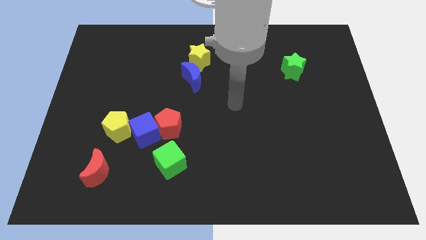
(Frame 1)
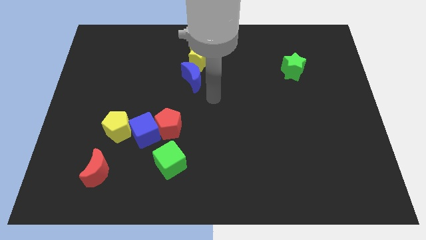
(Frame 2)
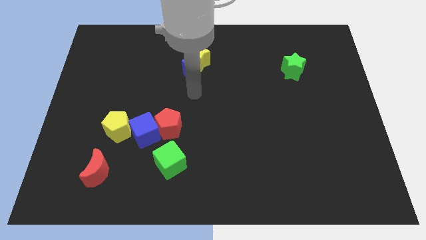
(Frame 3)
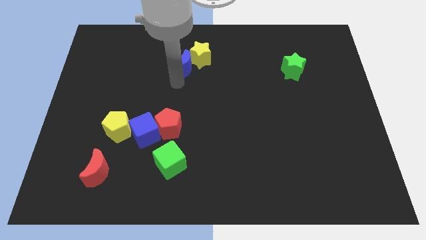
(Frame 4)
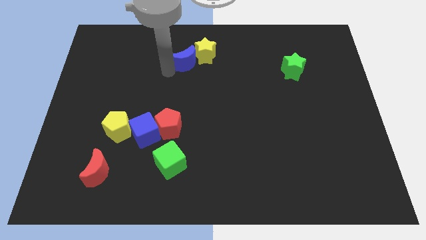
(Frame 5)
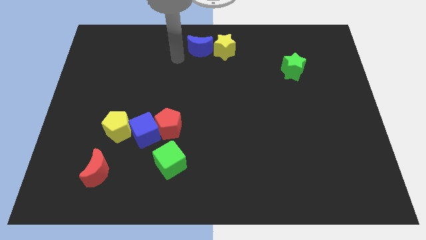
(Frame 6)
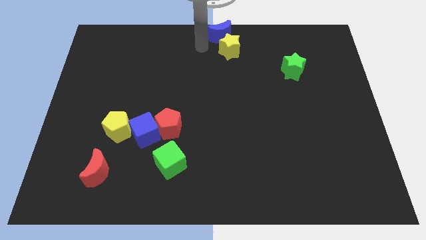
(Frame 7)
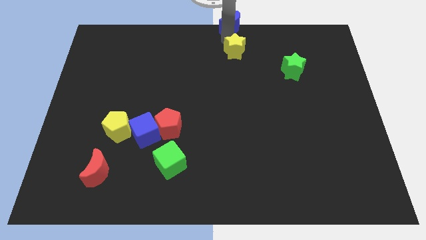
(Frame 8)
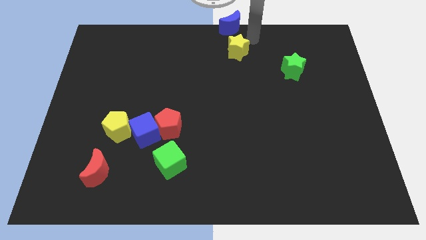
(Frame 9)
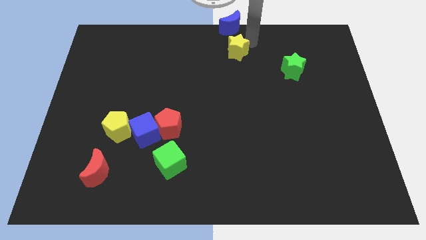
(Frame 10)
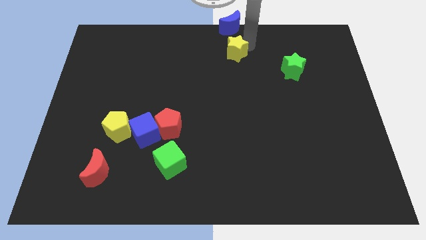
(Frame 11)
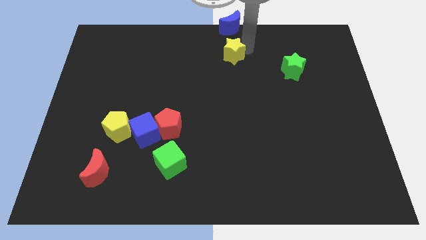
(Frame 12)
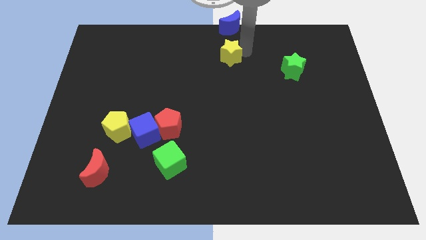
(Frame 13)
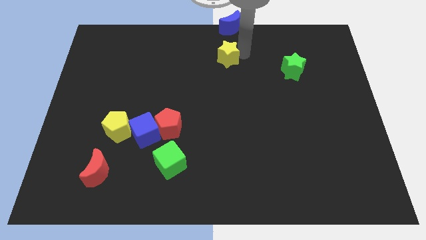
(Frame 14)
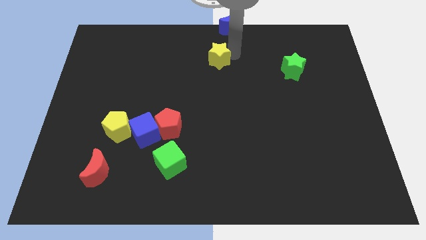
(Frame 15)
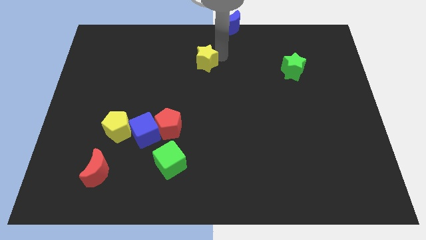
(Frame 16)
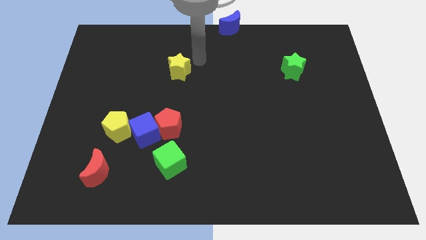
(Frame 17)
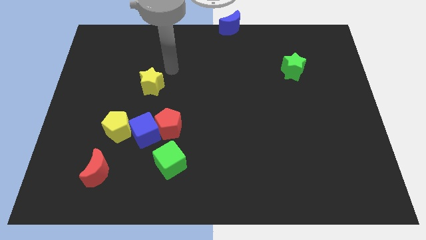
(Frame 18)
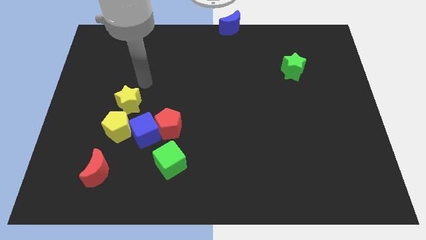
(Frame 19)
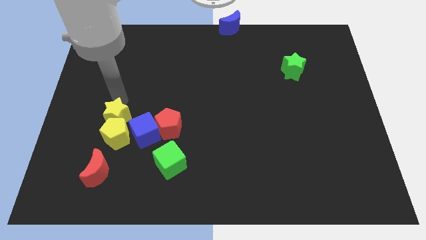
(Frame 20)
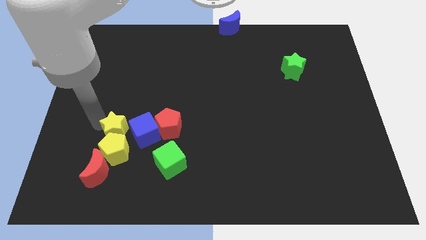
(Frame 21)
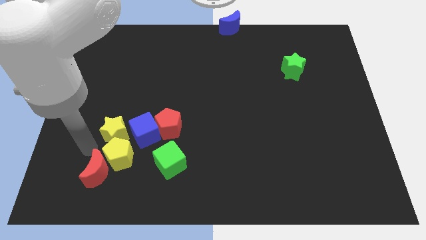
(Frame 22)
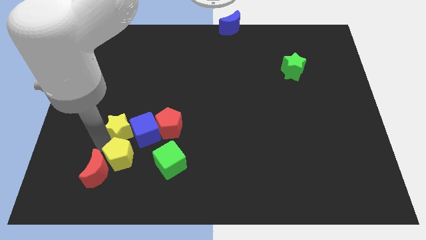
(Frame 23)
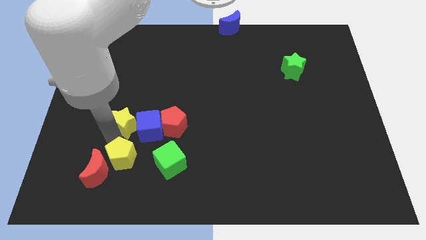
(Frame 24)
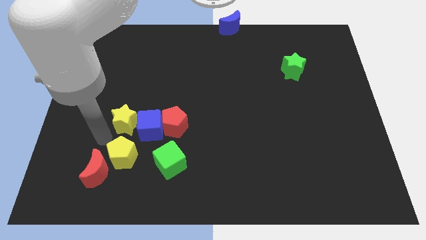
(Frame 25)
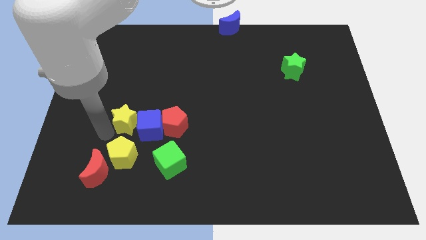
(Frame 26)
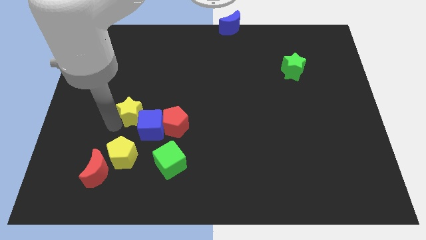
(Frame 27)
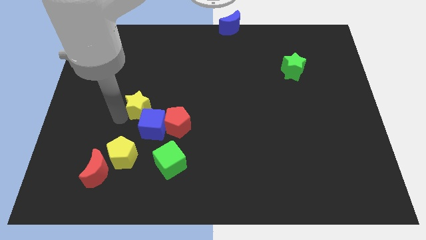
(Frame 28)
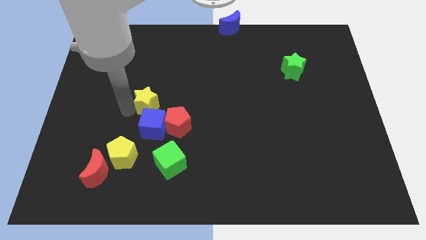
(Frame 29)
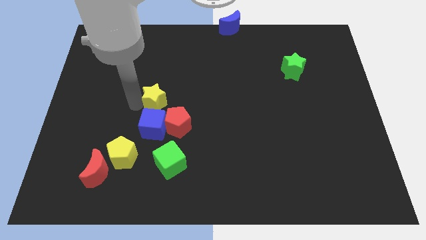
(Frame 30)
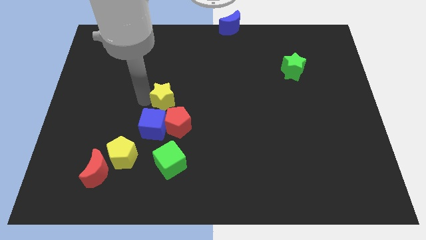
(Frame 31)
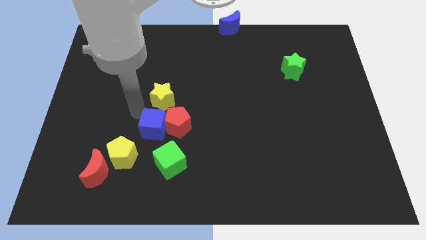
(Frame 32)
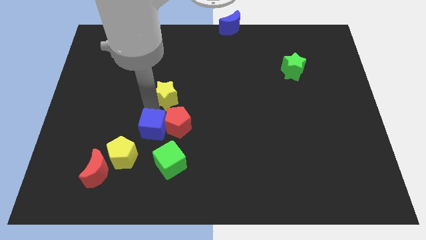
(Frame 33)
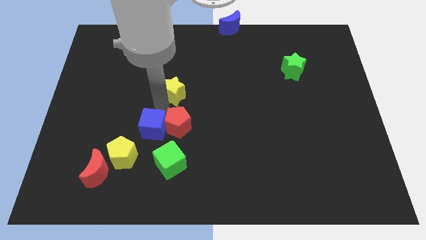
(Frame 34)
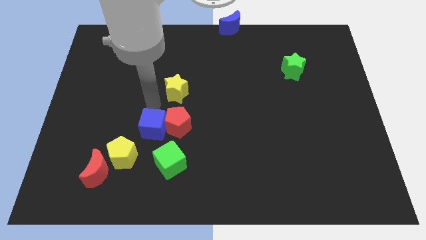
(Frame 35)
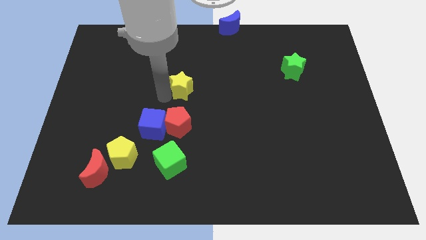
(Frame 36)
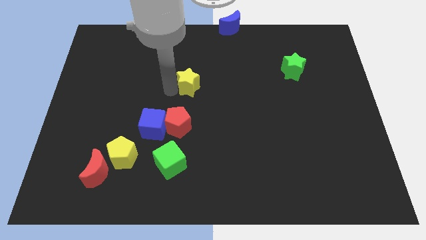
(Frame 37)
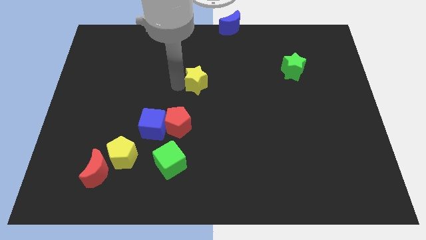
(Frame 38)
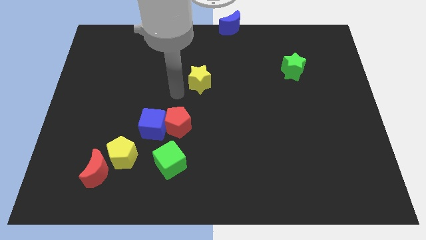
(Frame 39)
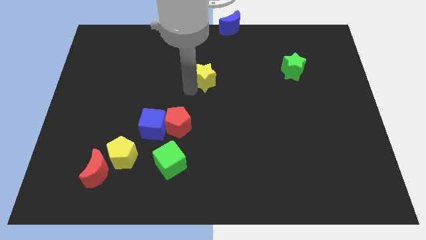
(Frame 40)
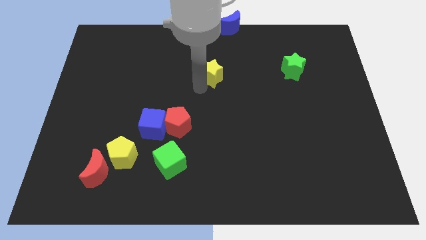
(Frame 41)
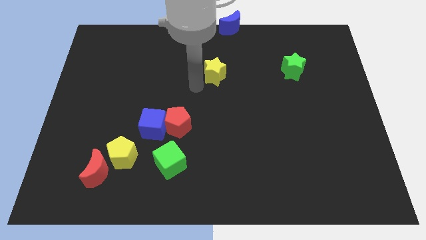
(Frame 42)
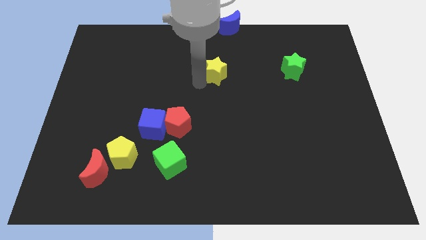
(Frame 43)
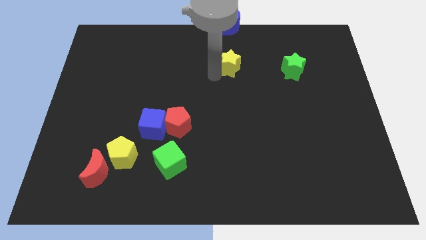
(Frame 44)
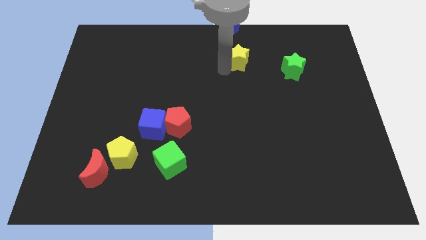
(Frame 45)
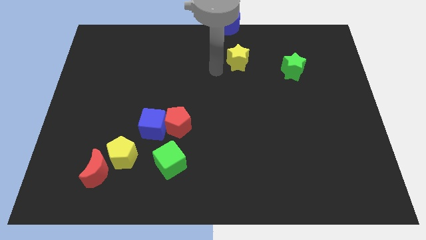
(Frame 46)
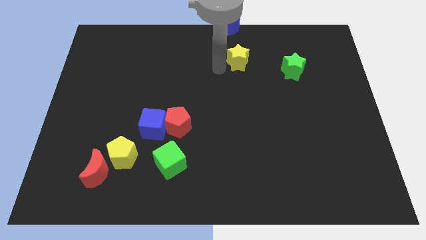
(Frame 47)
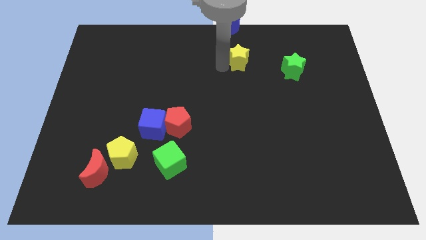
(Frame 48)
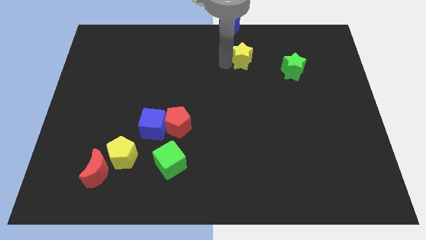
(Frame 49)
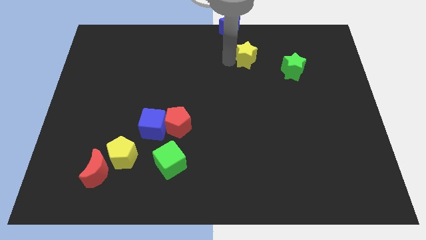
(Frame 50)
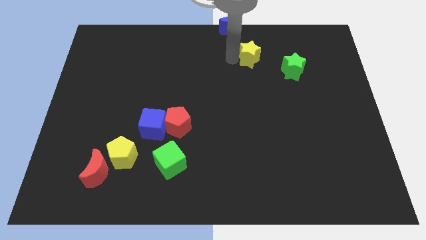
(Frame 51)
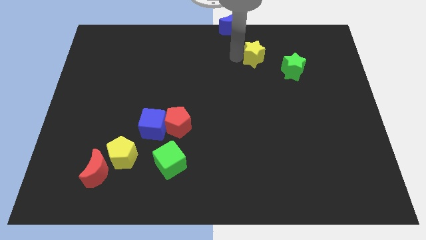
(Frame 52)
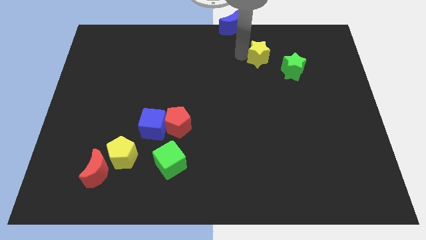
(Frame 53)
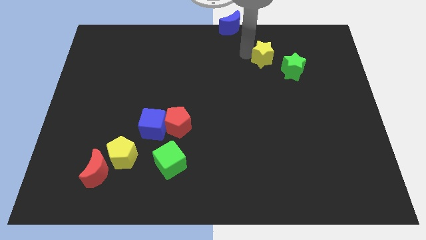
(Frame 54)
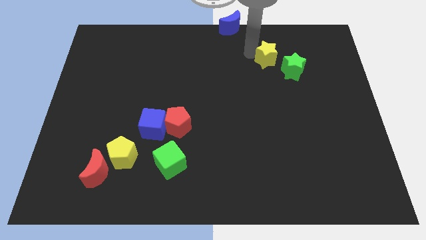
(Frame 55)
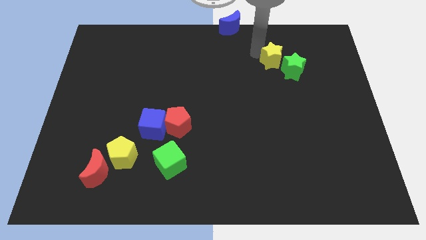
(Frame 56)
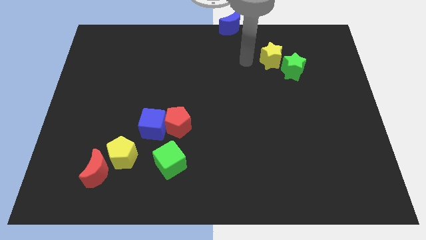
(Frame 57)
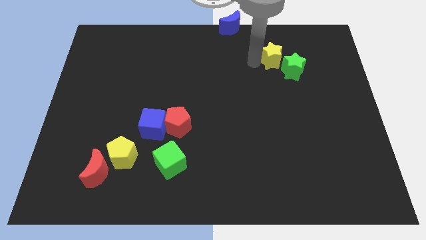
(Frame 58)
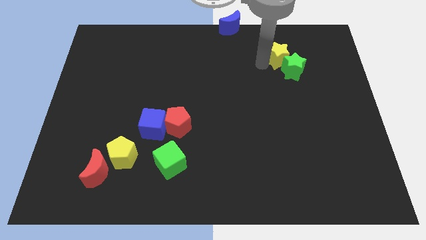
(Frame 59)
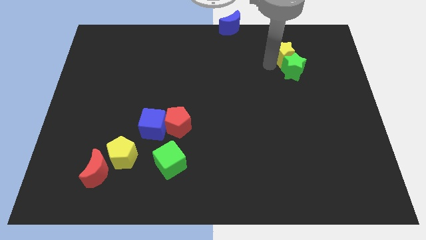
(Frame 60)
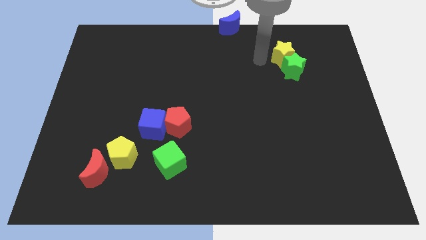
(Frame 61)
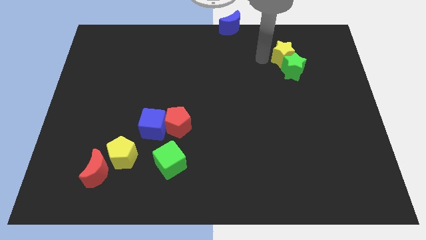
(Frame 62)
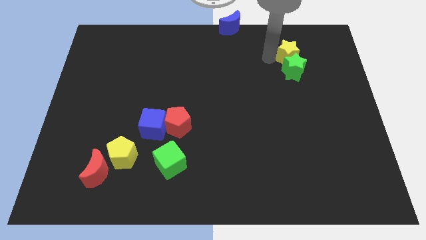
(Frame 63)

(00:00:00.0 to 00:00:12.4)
slide the yellow star to the top right of the green star

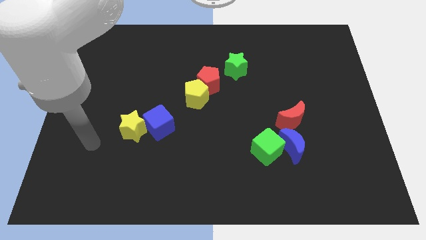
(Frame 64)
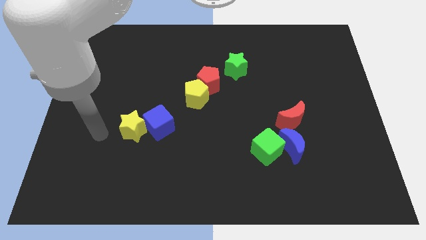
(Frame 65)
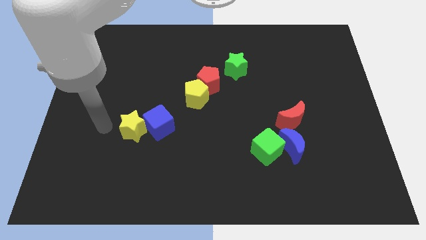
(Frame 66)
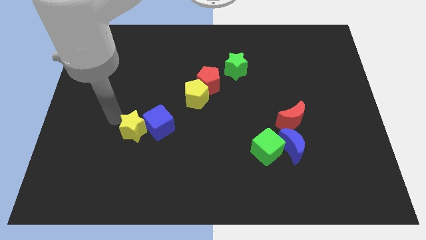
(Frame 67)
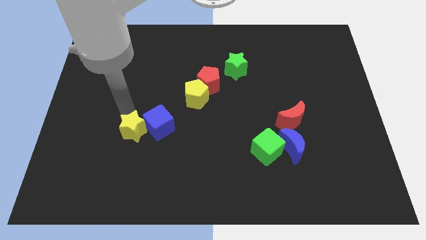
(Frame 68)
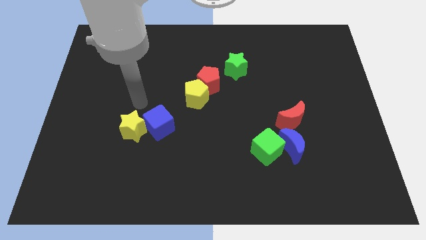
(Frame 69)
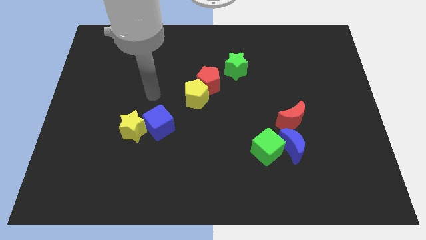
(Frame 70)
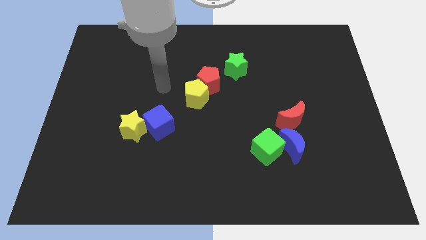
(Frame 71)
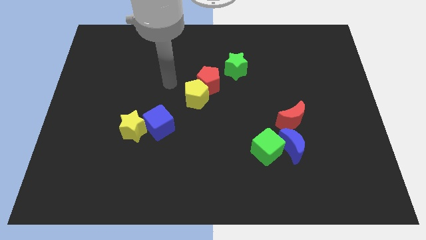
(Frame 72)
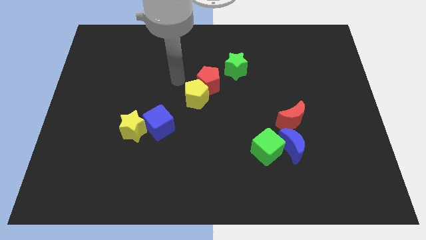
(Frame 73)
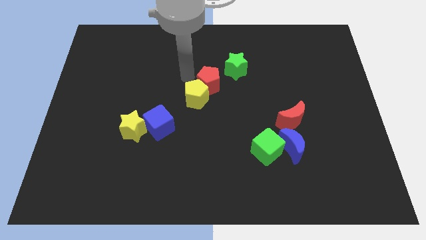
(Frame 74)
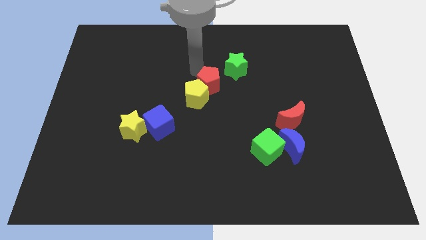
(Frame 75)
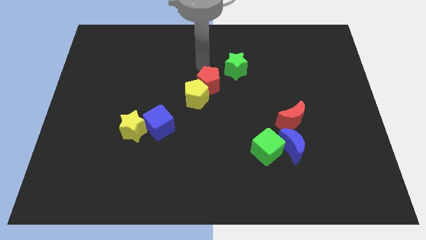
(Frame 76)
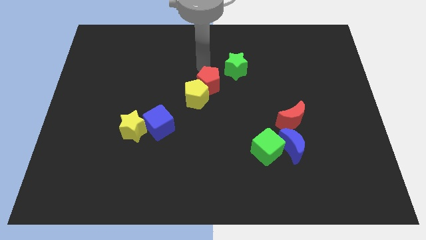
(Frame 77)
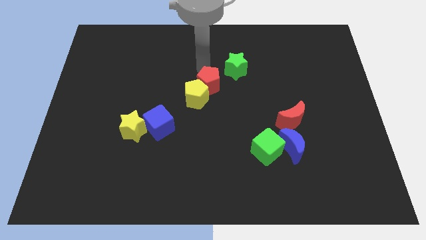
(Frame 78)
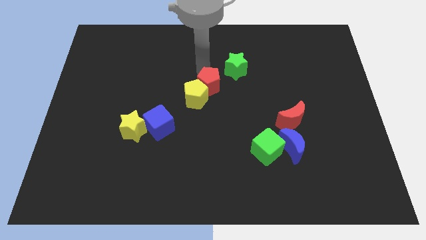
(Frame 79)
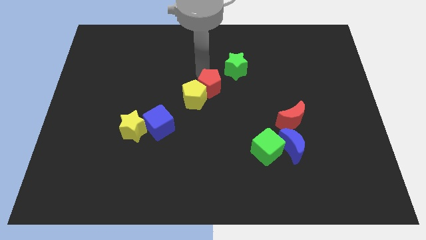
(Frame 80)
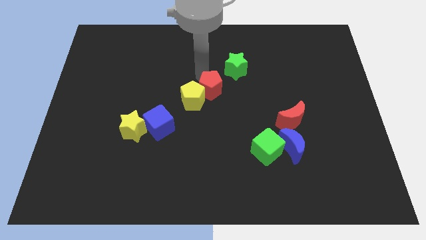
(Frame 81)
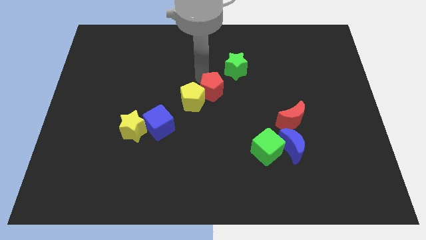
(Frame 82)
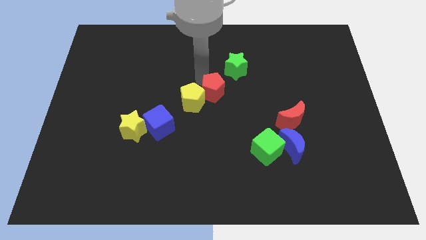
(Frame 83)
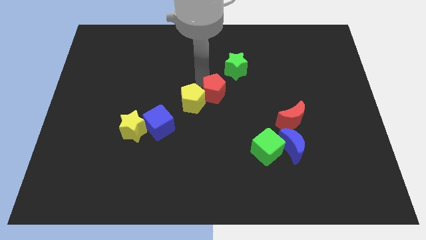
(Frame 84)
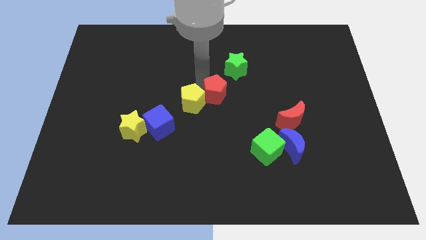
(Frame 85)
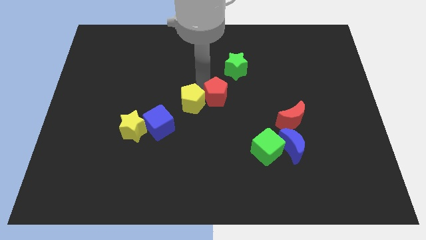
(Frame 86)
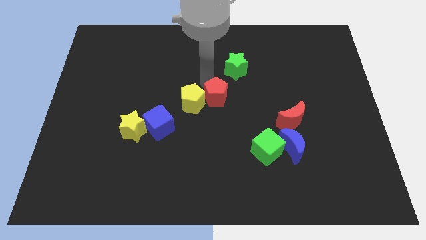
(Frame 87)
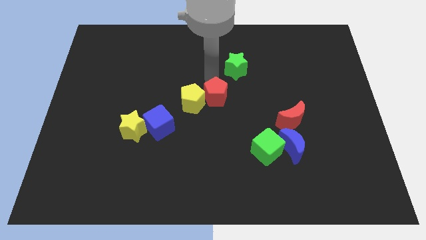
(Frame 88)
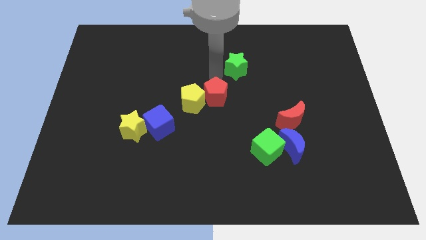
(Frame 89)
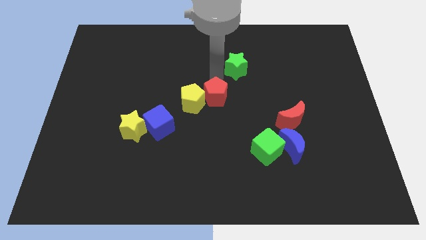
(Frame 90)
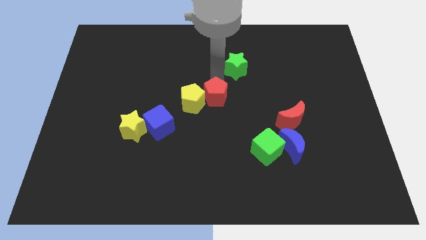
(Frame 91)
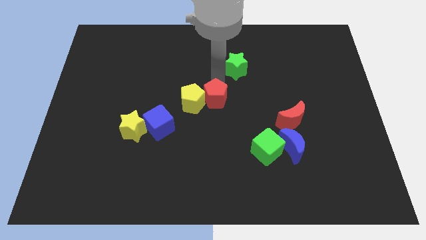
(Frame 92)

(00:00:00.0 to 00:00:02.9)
slide the red pentagon to the bottom right of the yellow pentagon
